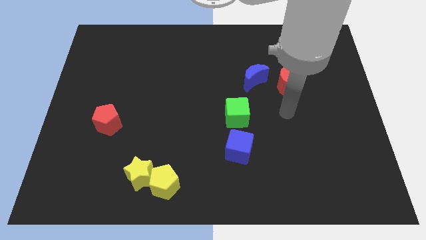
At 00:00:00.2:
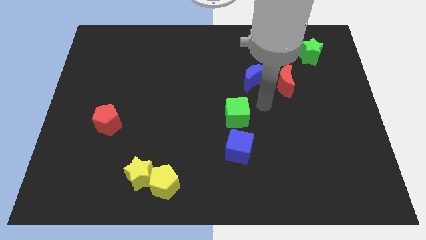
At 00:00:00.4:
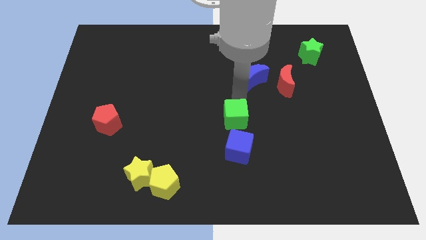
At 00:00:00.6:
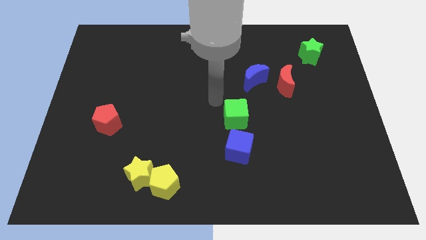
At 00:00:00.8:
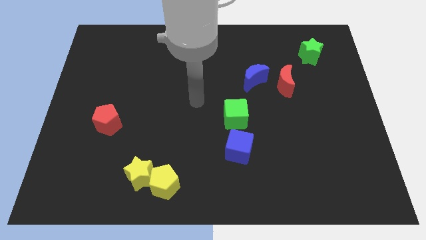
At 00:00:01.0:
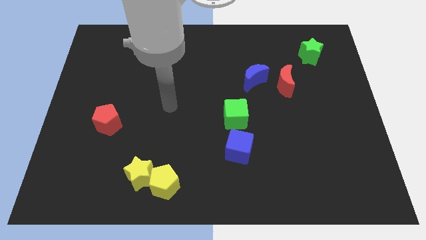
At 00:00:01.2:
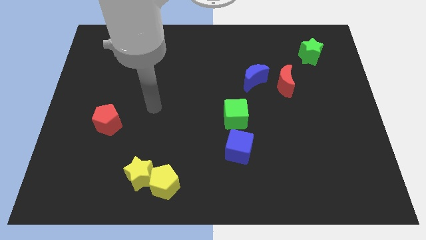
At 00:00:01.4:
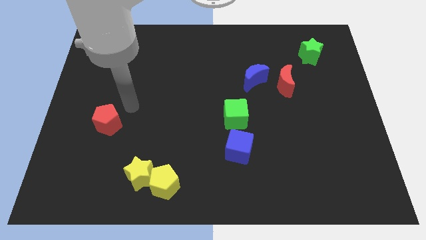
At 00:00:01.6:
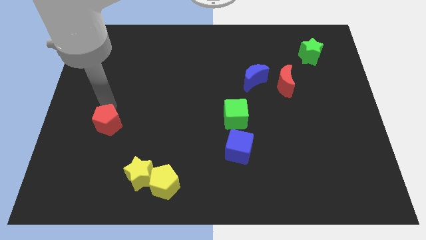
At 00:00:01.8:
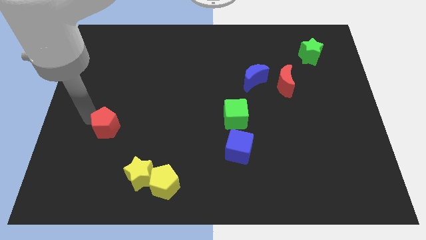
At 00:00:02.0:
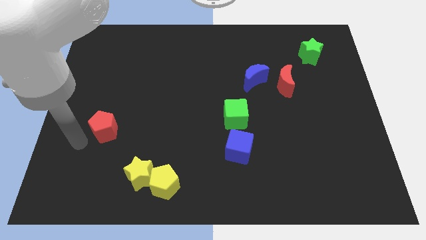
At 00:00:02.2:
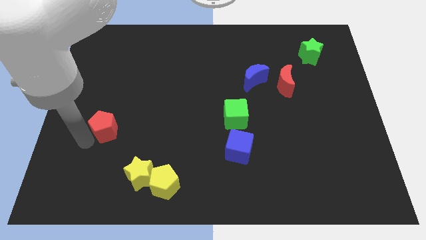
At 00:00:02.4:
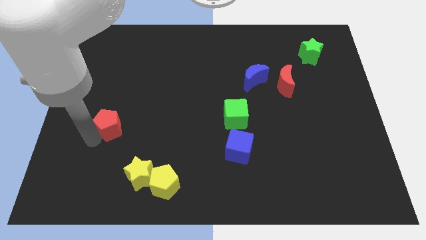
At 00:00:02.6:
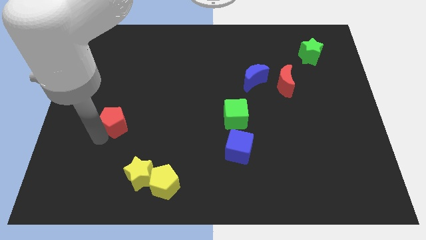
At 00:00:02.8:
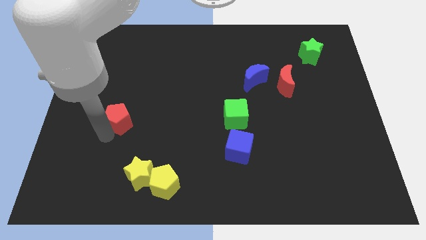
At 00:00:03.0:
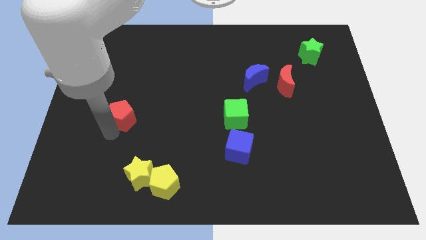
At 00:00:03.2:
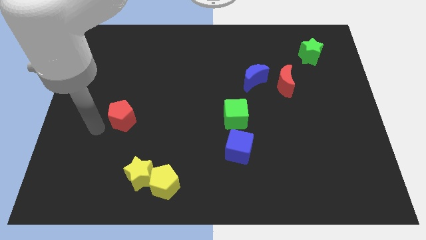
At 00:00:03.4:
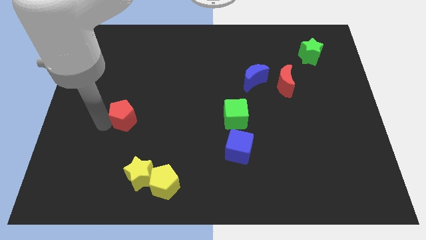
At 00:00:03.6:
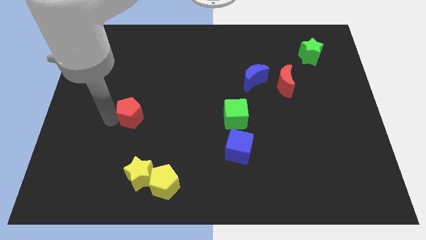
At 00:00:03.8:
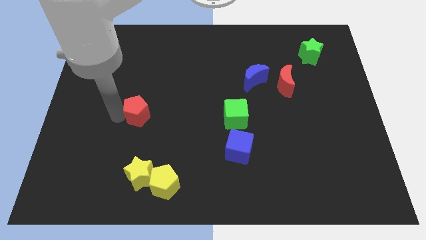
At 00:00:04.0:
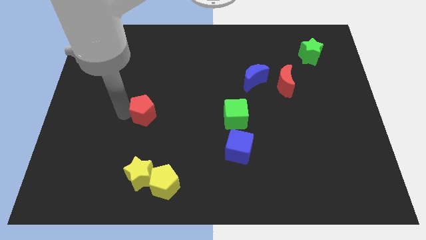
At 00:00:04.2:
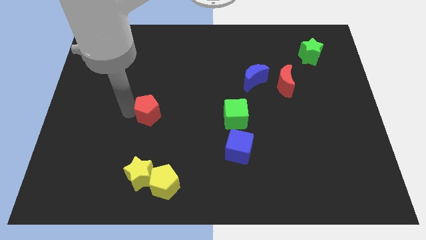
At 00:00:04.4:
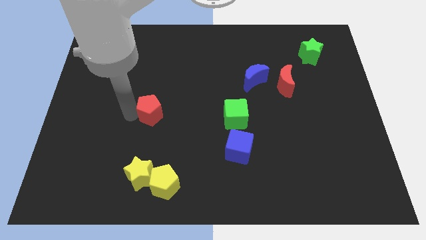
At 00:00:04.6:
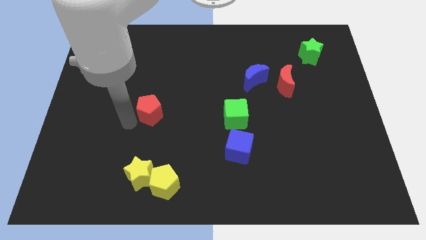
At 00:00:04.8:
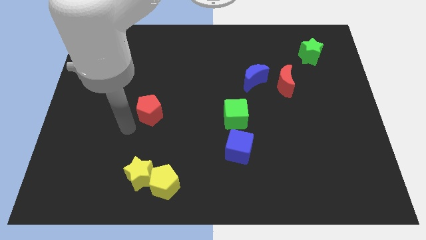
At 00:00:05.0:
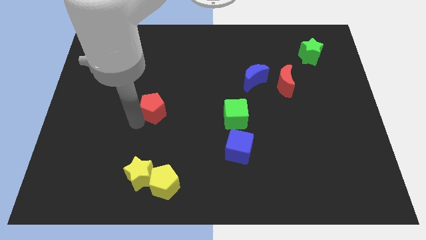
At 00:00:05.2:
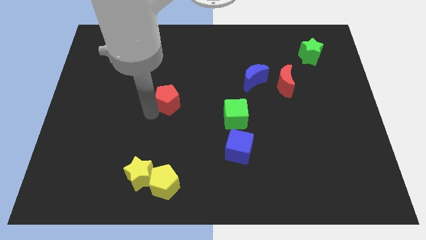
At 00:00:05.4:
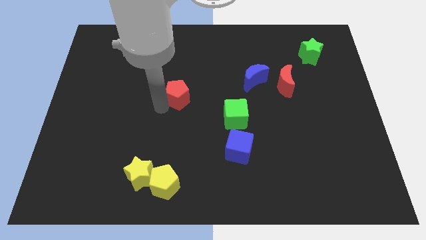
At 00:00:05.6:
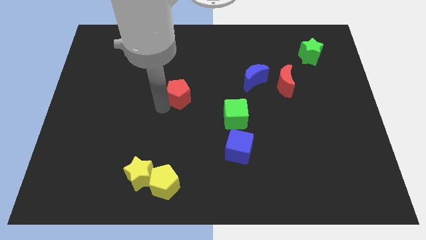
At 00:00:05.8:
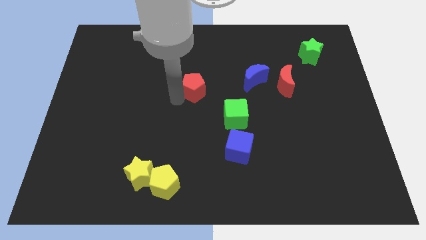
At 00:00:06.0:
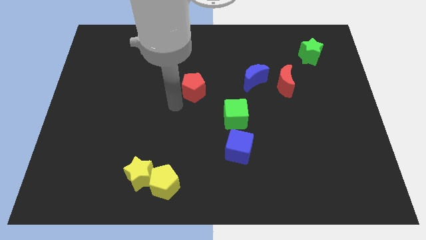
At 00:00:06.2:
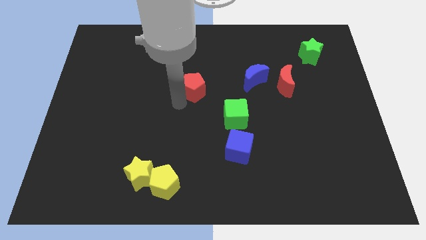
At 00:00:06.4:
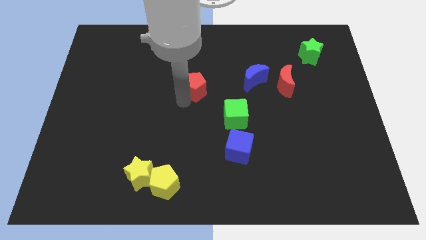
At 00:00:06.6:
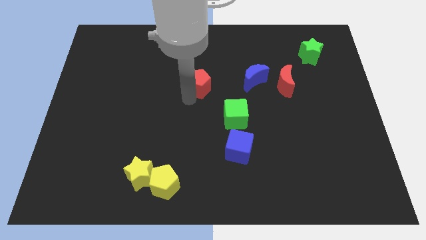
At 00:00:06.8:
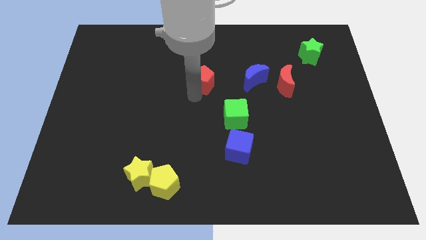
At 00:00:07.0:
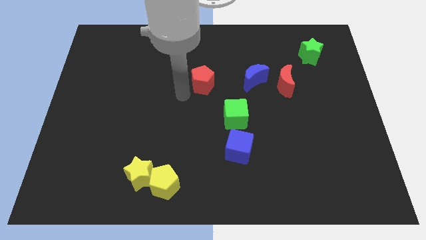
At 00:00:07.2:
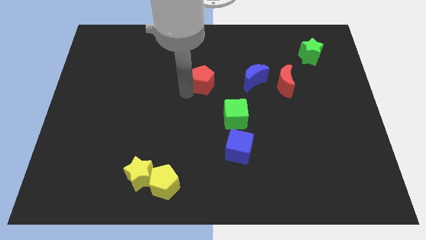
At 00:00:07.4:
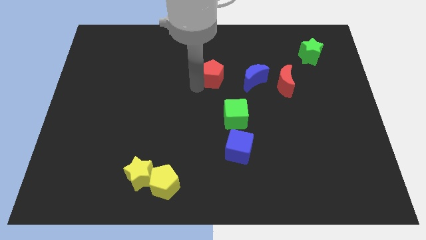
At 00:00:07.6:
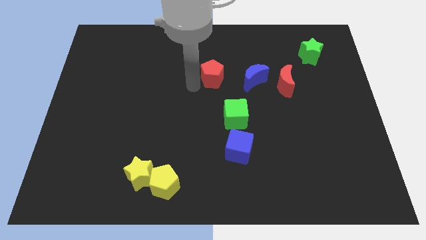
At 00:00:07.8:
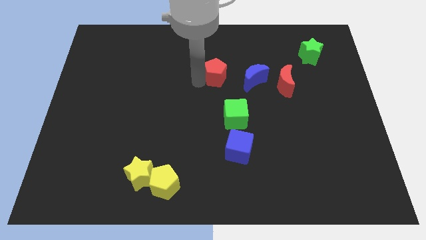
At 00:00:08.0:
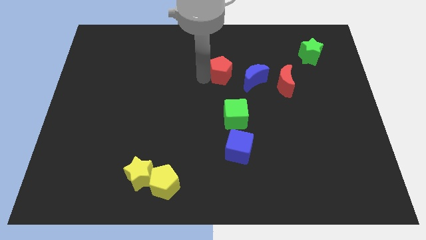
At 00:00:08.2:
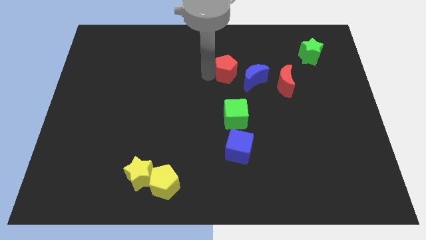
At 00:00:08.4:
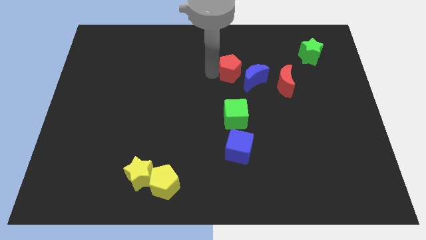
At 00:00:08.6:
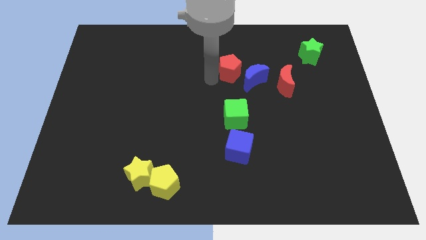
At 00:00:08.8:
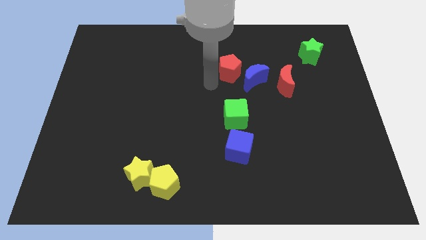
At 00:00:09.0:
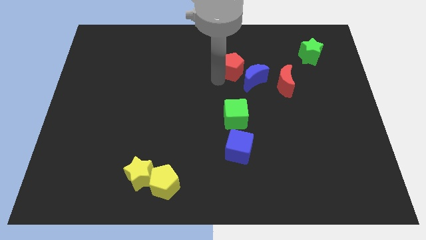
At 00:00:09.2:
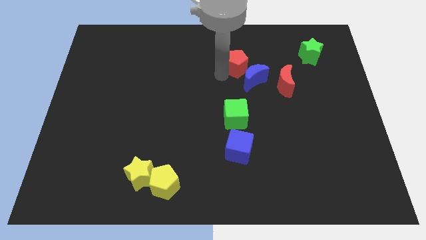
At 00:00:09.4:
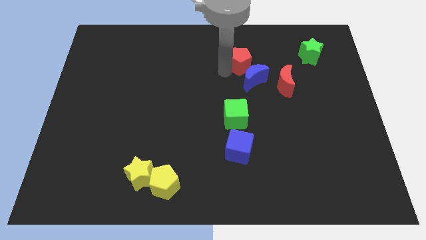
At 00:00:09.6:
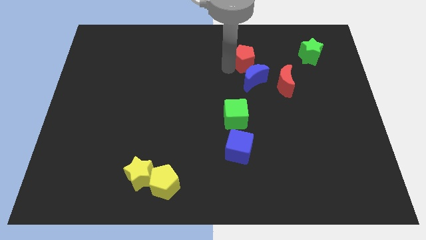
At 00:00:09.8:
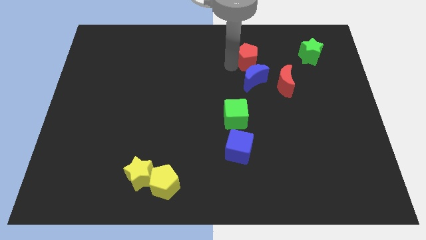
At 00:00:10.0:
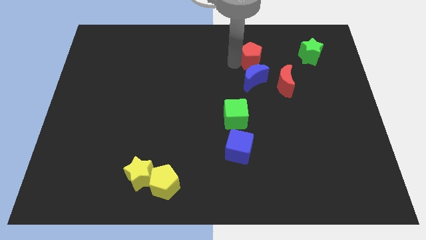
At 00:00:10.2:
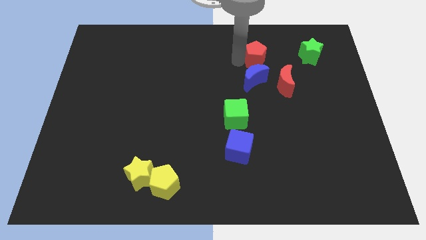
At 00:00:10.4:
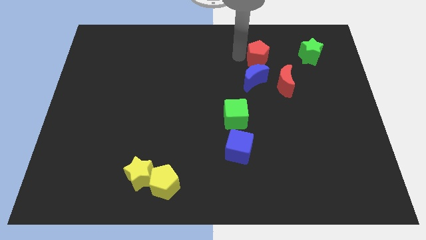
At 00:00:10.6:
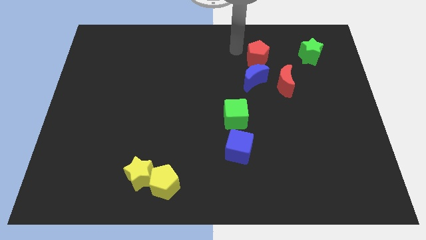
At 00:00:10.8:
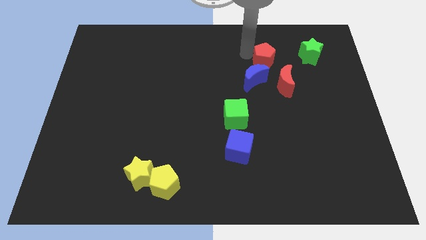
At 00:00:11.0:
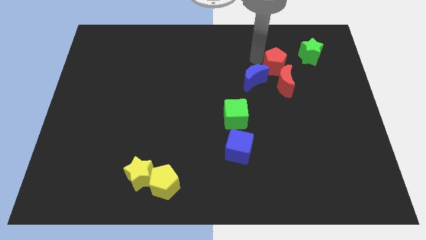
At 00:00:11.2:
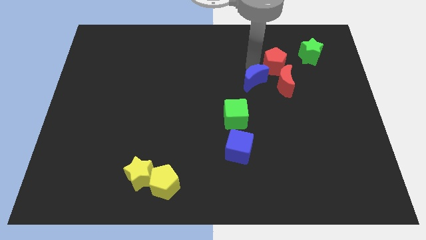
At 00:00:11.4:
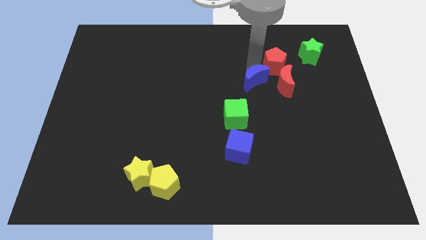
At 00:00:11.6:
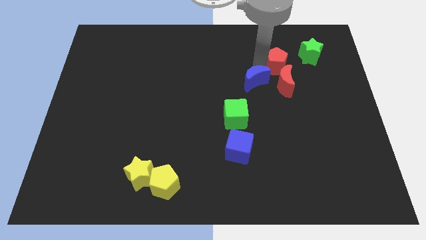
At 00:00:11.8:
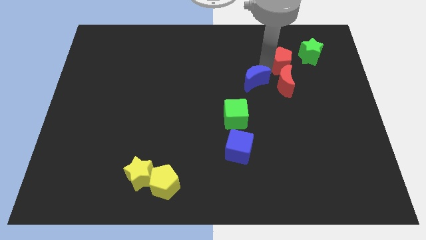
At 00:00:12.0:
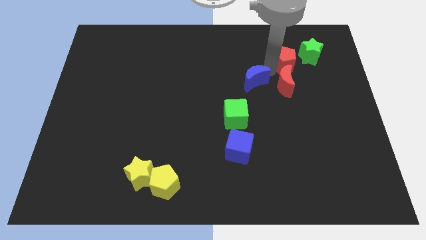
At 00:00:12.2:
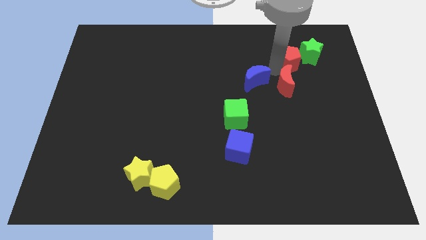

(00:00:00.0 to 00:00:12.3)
slide the red pentagon to the green star

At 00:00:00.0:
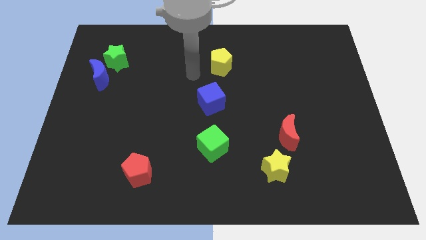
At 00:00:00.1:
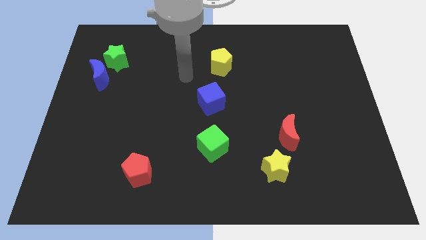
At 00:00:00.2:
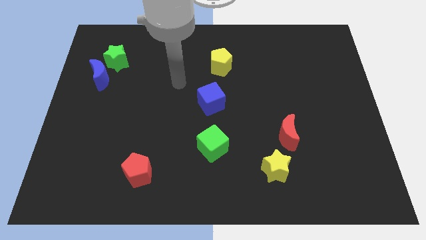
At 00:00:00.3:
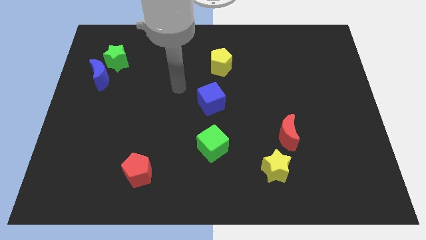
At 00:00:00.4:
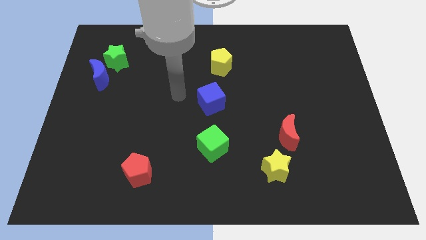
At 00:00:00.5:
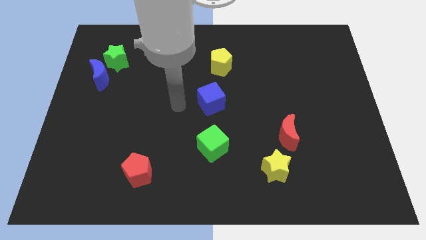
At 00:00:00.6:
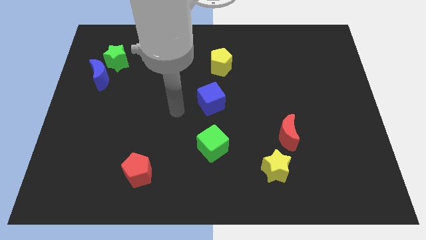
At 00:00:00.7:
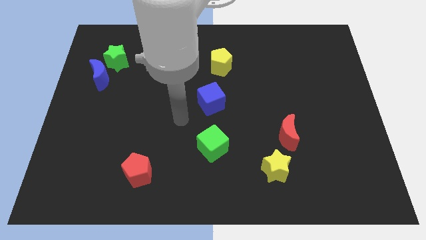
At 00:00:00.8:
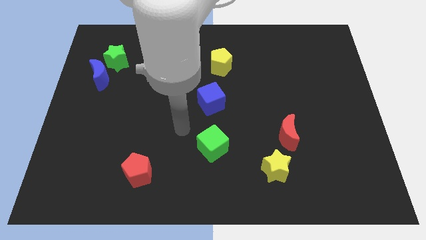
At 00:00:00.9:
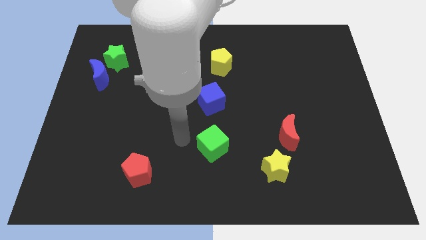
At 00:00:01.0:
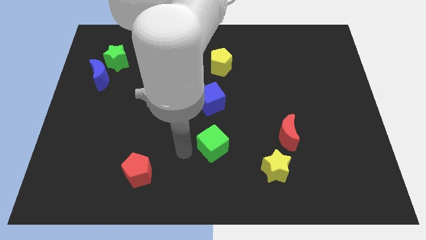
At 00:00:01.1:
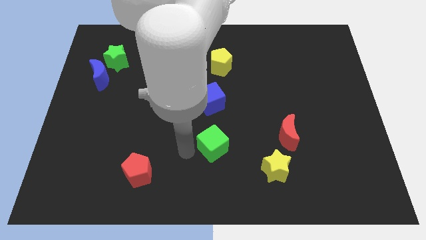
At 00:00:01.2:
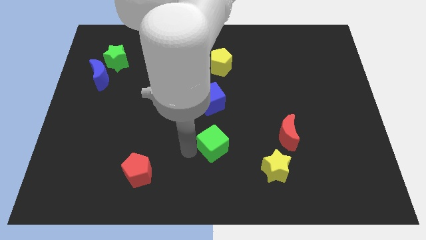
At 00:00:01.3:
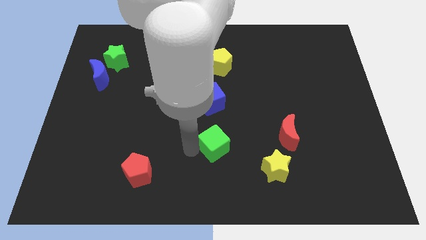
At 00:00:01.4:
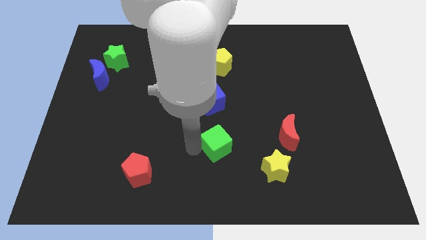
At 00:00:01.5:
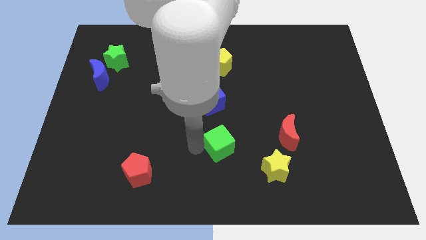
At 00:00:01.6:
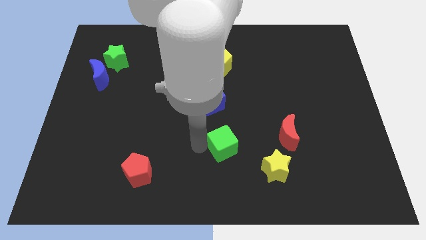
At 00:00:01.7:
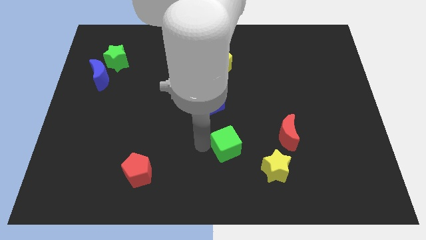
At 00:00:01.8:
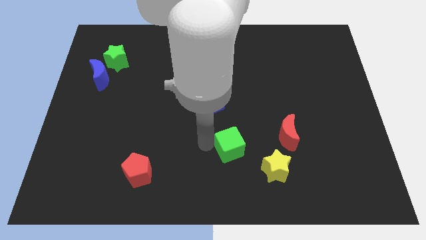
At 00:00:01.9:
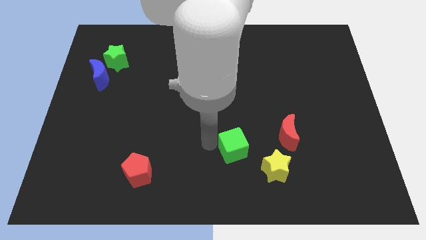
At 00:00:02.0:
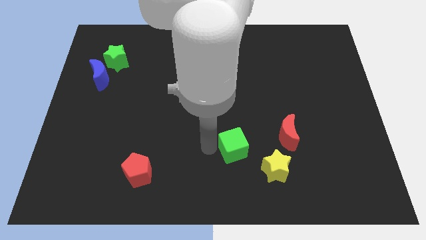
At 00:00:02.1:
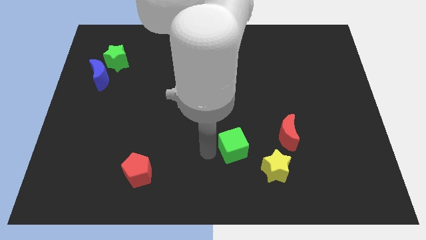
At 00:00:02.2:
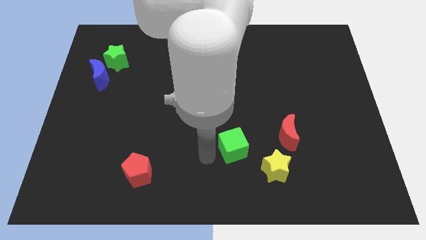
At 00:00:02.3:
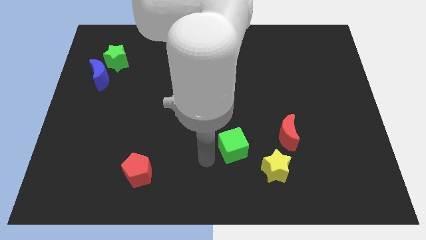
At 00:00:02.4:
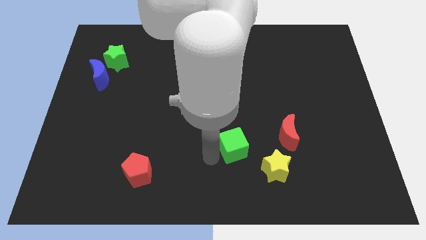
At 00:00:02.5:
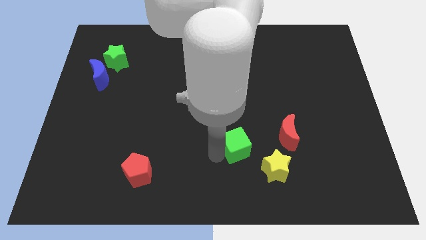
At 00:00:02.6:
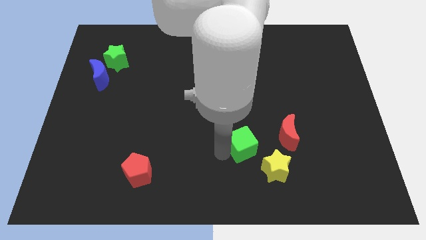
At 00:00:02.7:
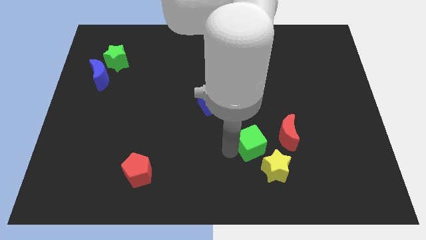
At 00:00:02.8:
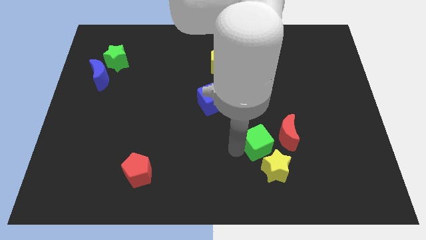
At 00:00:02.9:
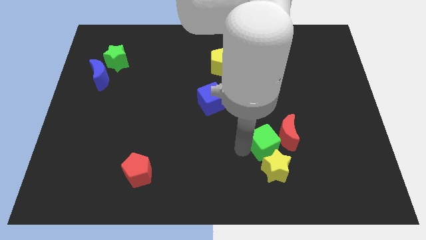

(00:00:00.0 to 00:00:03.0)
move the green cube next to the red moon
